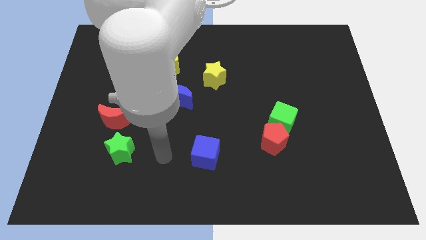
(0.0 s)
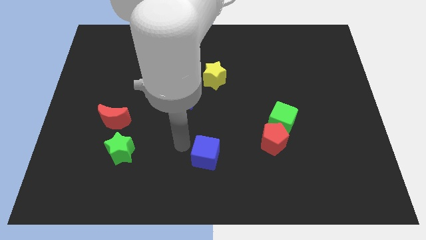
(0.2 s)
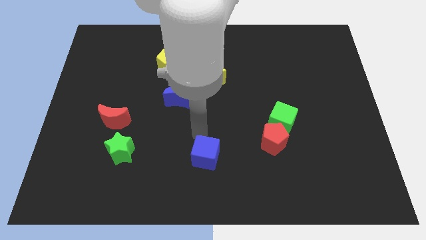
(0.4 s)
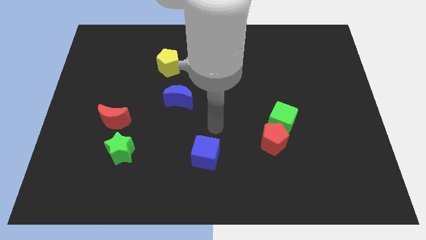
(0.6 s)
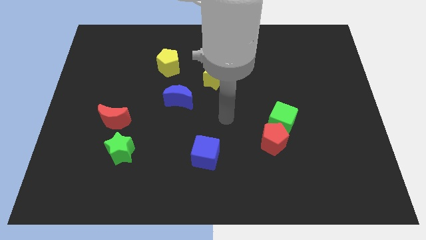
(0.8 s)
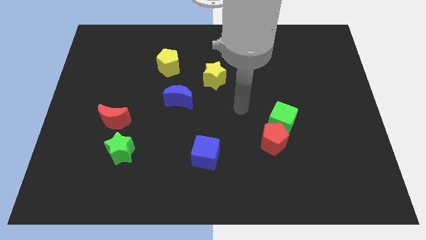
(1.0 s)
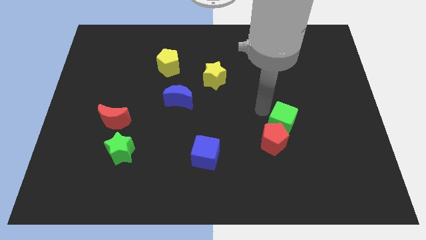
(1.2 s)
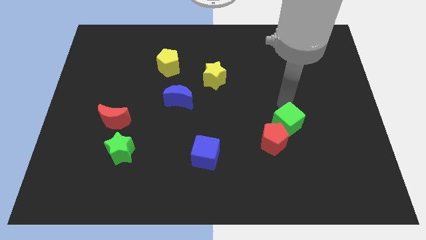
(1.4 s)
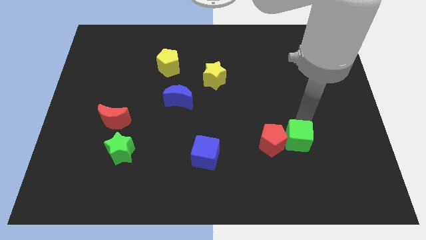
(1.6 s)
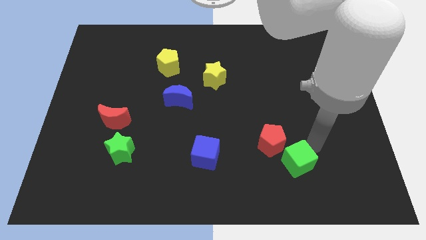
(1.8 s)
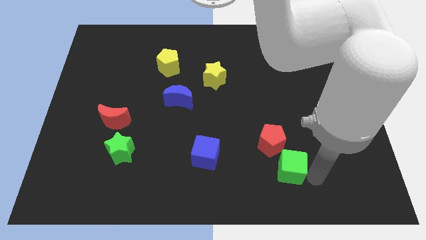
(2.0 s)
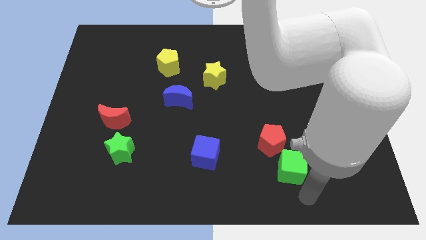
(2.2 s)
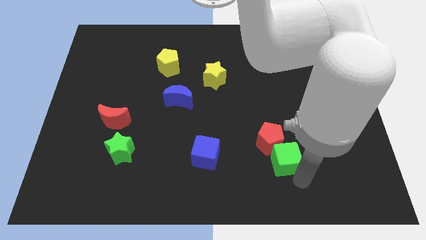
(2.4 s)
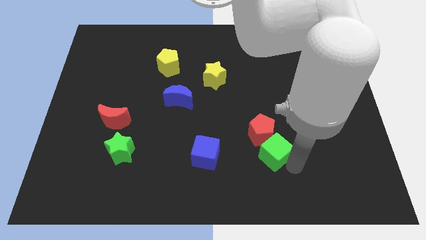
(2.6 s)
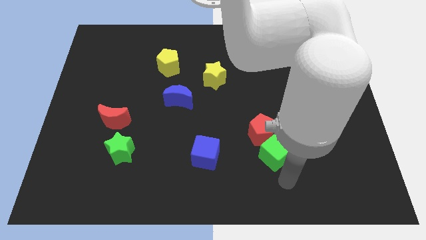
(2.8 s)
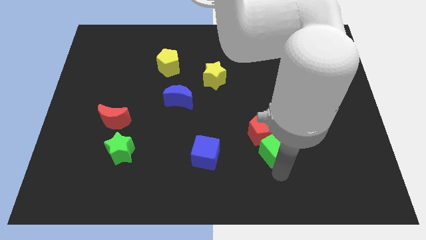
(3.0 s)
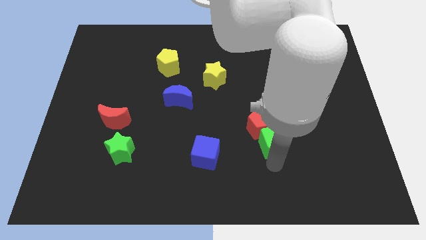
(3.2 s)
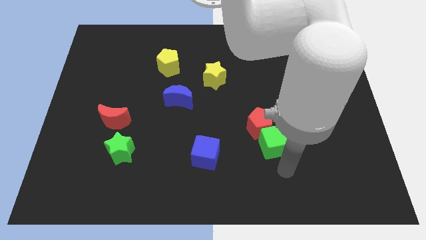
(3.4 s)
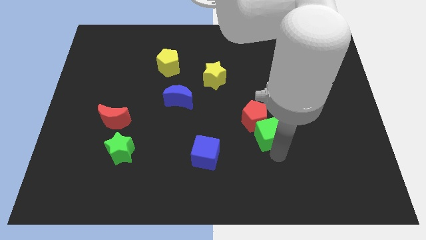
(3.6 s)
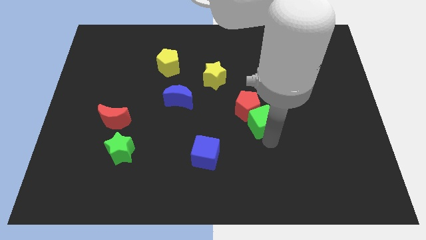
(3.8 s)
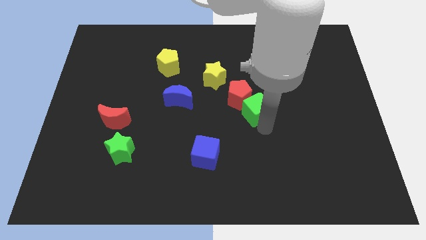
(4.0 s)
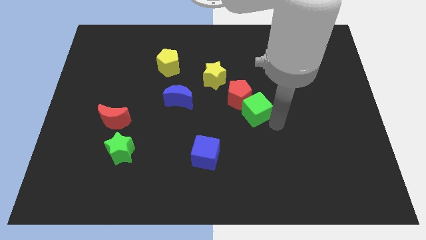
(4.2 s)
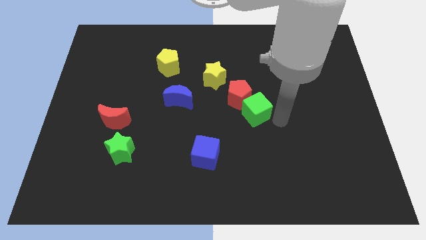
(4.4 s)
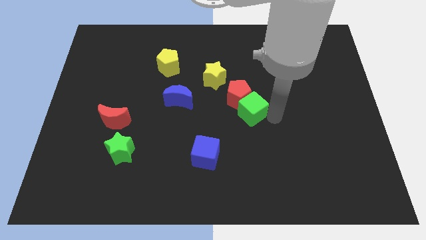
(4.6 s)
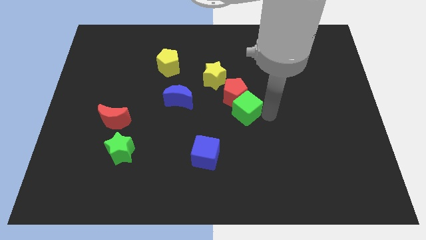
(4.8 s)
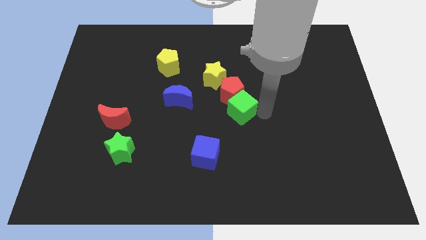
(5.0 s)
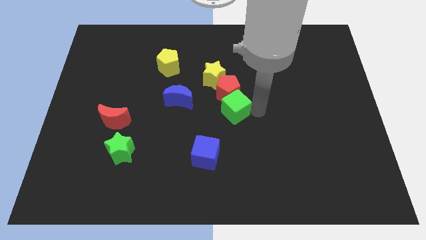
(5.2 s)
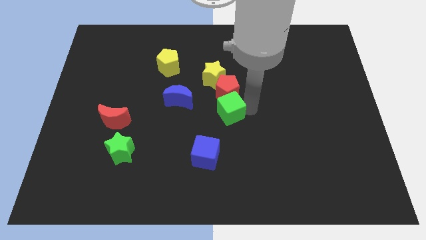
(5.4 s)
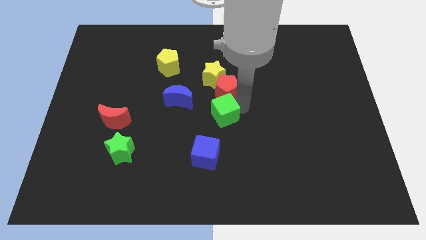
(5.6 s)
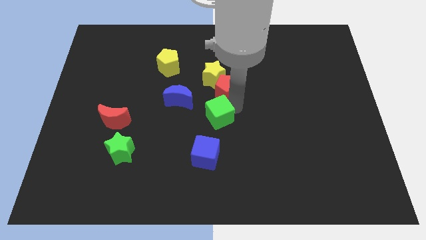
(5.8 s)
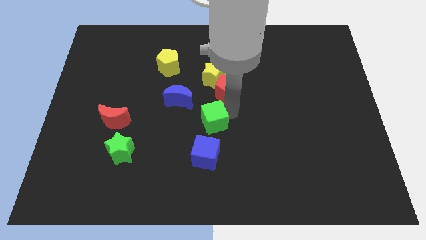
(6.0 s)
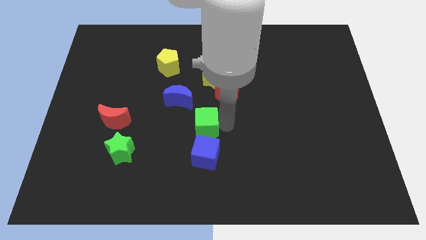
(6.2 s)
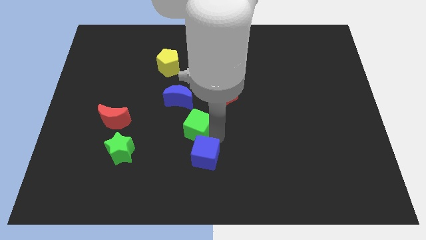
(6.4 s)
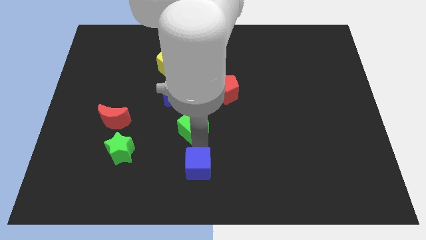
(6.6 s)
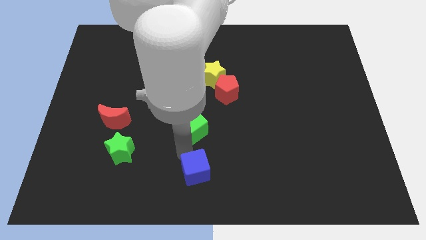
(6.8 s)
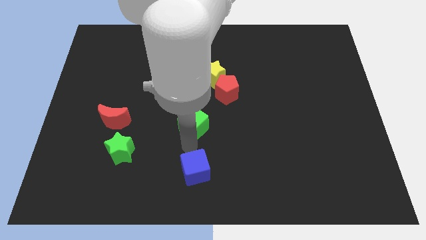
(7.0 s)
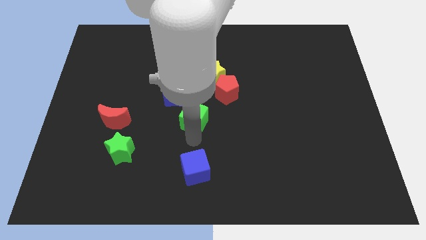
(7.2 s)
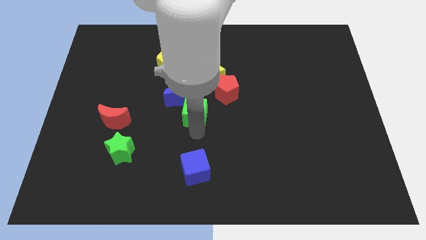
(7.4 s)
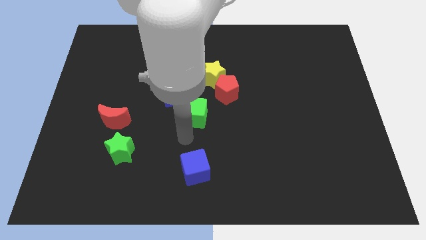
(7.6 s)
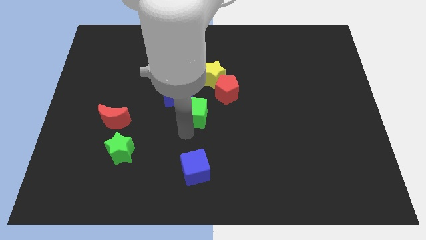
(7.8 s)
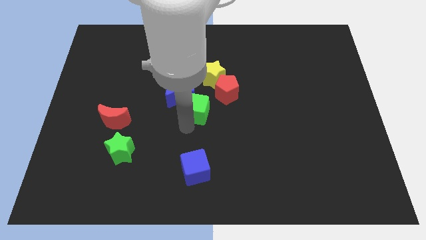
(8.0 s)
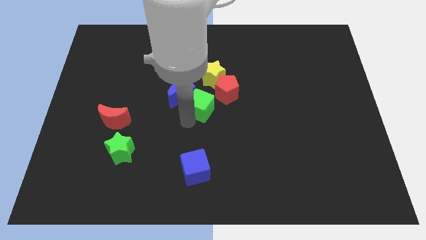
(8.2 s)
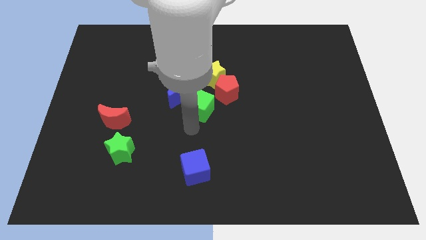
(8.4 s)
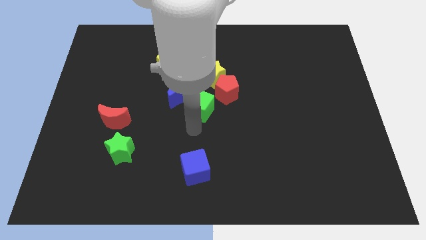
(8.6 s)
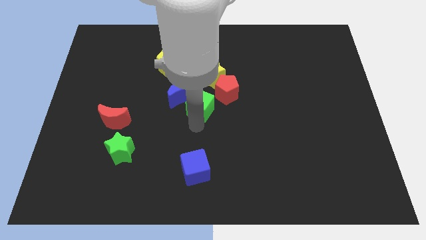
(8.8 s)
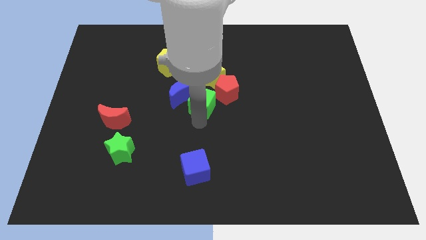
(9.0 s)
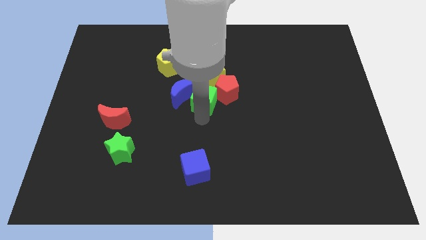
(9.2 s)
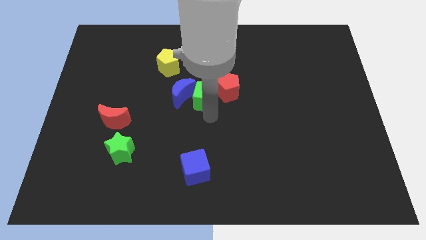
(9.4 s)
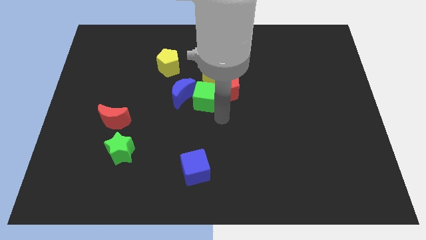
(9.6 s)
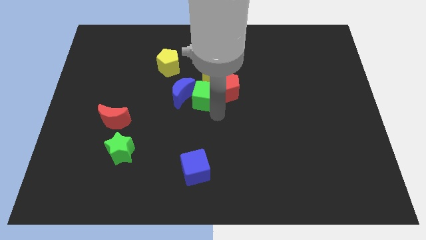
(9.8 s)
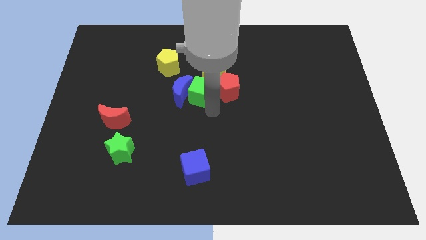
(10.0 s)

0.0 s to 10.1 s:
push the green cube to the bottom right side of the yellow pentagon

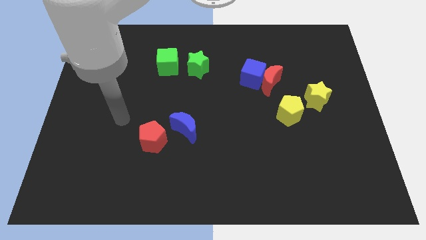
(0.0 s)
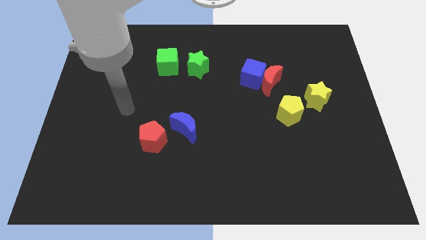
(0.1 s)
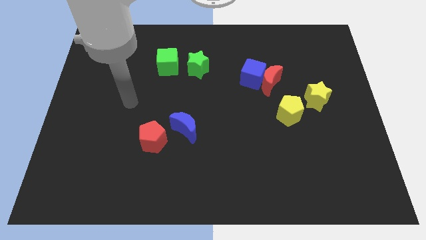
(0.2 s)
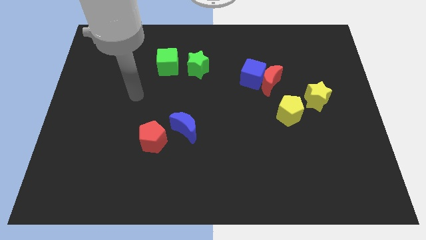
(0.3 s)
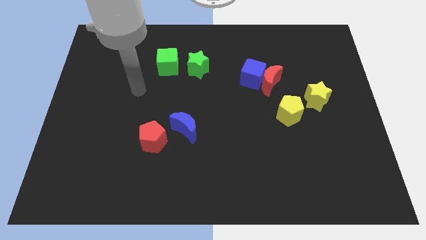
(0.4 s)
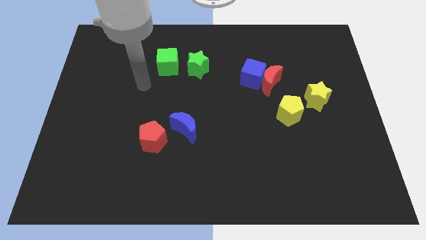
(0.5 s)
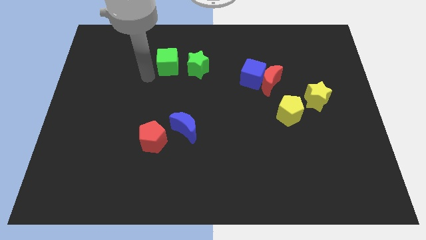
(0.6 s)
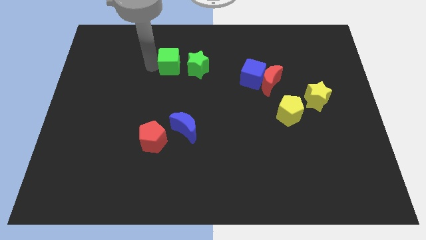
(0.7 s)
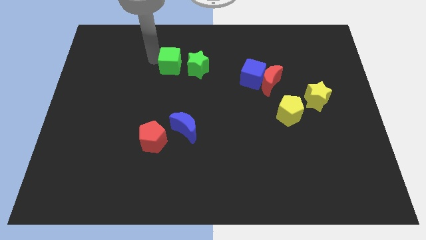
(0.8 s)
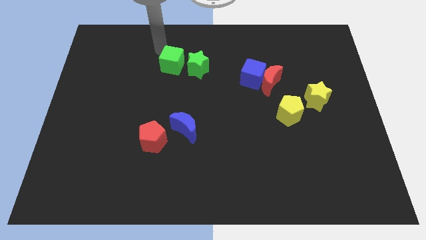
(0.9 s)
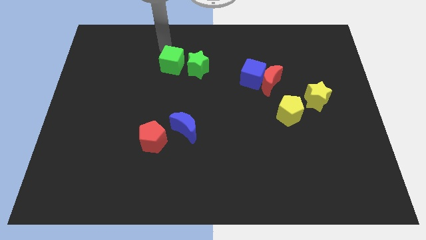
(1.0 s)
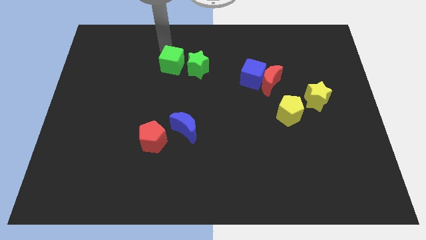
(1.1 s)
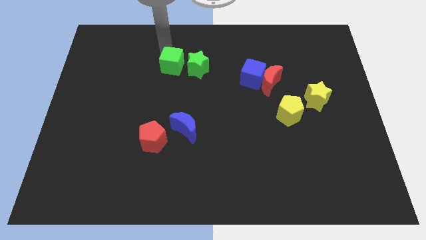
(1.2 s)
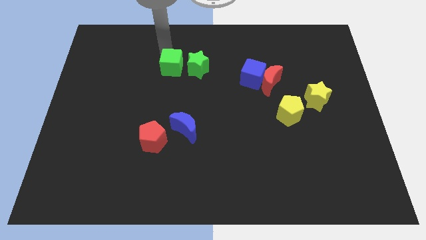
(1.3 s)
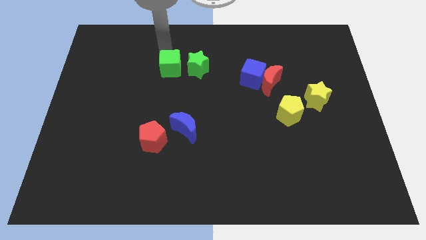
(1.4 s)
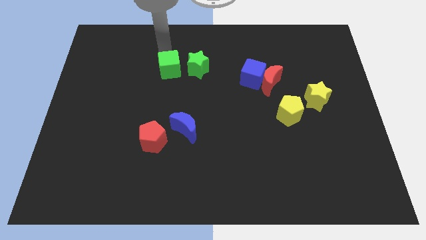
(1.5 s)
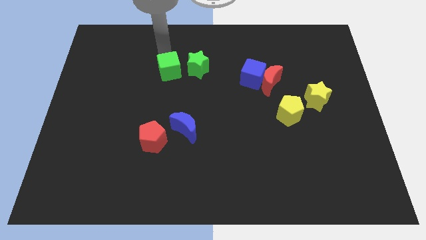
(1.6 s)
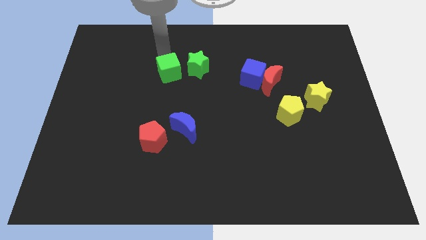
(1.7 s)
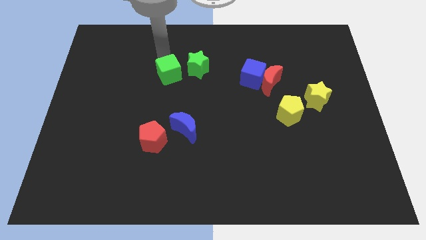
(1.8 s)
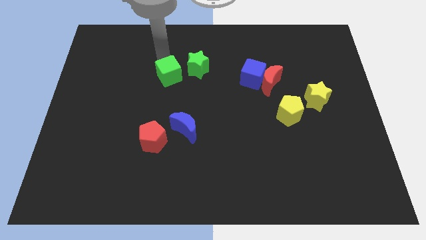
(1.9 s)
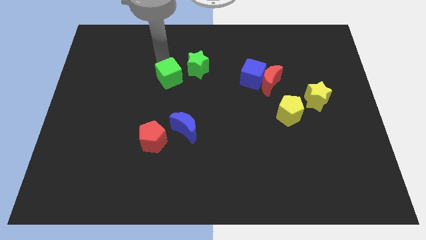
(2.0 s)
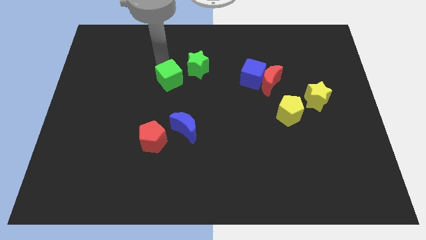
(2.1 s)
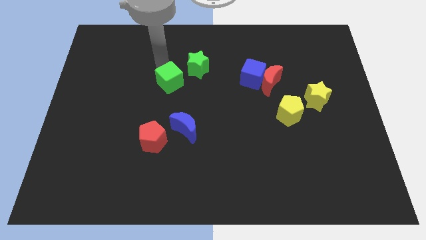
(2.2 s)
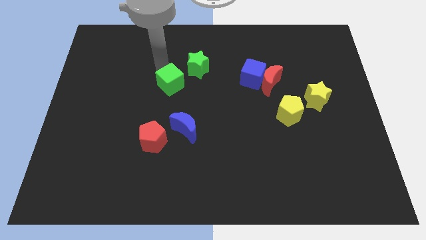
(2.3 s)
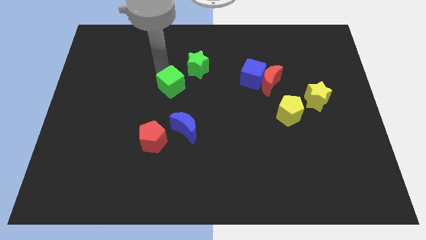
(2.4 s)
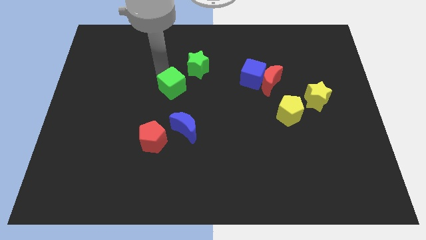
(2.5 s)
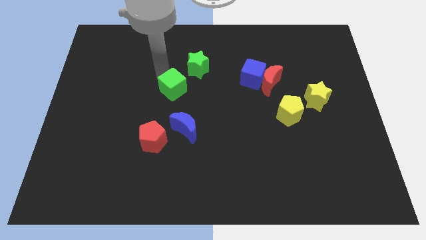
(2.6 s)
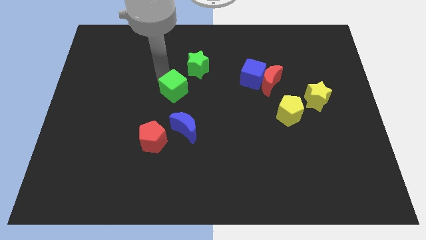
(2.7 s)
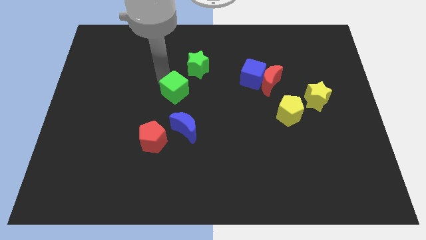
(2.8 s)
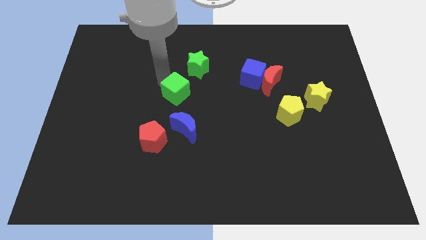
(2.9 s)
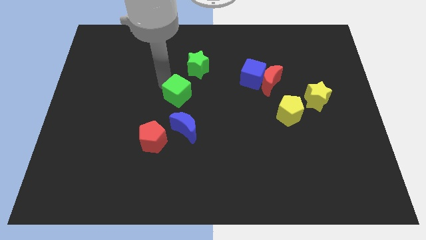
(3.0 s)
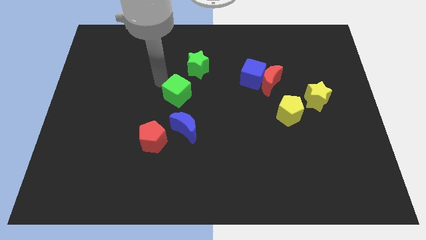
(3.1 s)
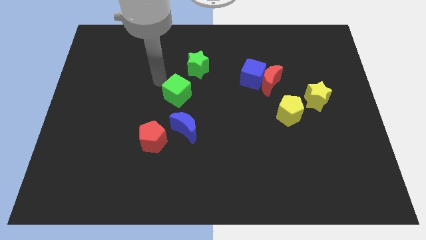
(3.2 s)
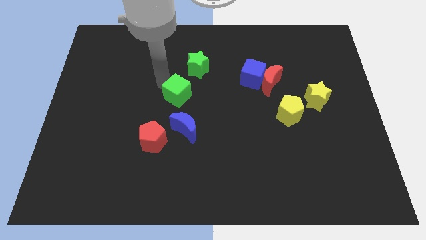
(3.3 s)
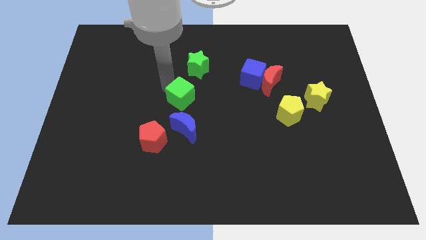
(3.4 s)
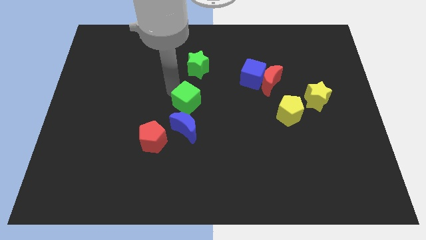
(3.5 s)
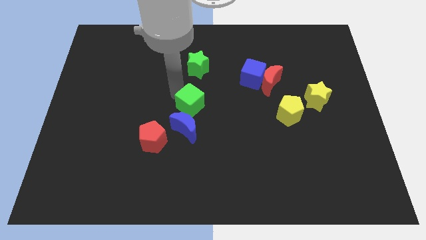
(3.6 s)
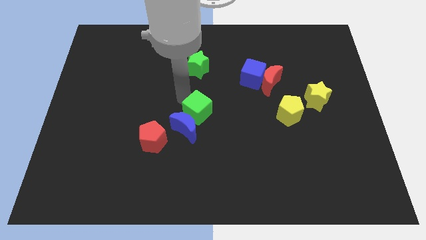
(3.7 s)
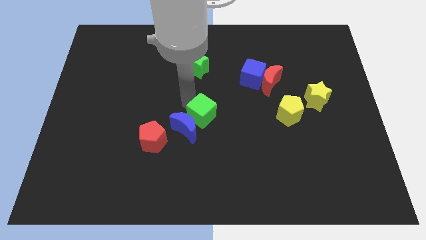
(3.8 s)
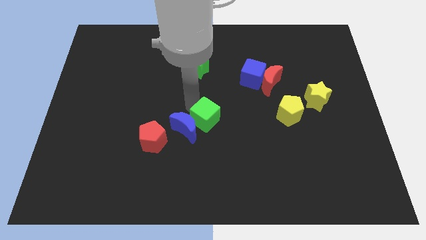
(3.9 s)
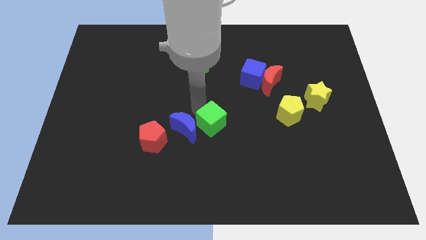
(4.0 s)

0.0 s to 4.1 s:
put the green cube right of the red pentagon
